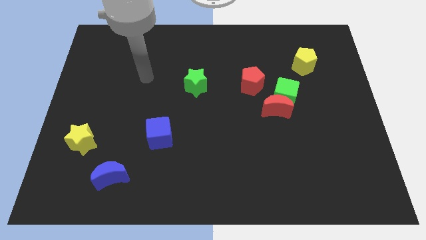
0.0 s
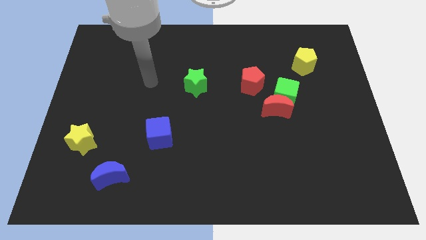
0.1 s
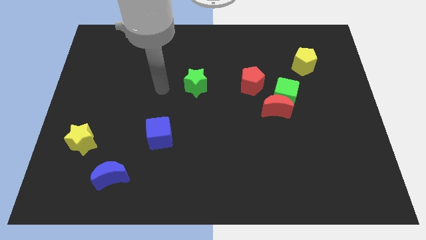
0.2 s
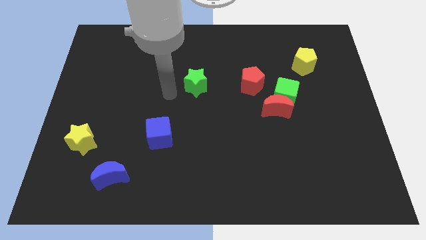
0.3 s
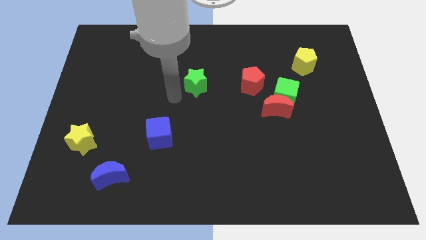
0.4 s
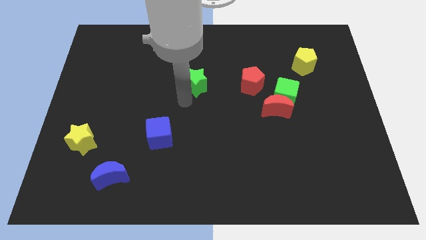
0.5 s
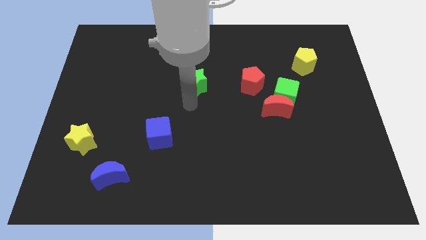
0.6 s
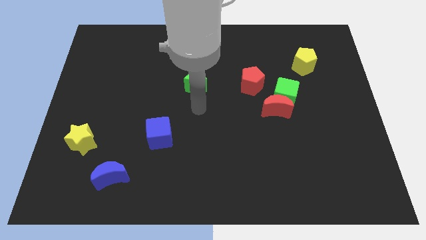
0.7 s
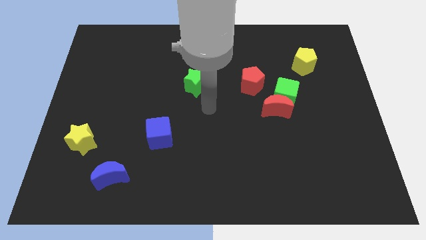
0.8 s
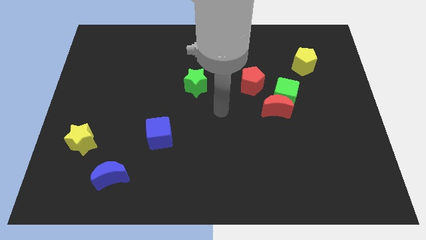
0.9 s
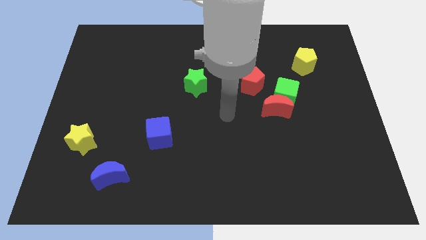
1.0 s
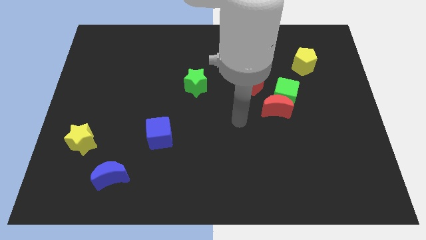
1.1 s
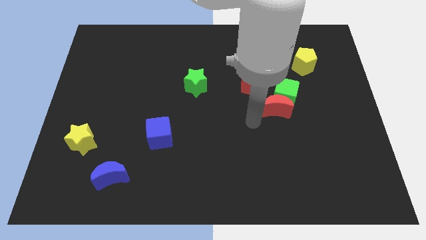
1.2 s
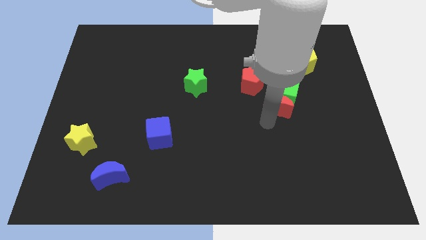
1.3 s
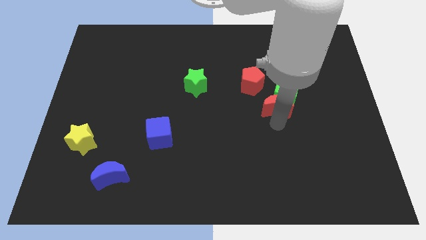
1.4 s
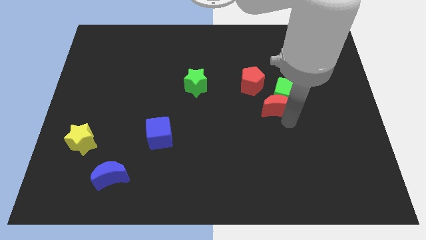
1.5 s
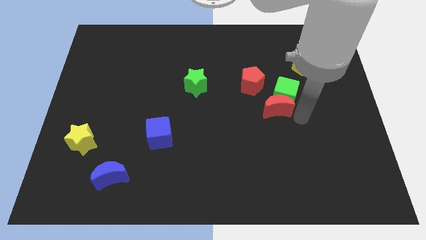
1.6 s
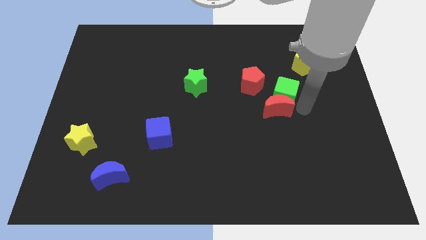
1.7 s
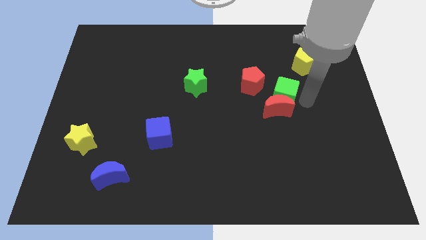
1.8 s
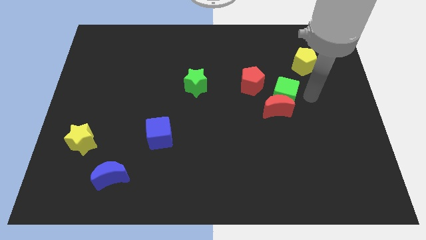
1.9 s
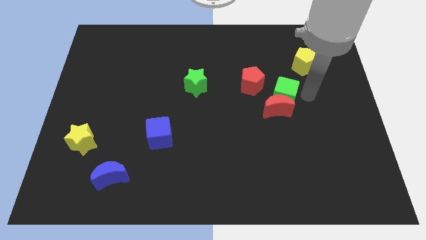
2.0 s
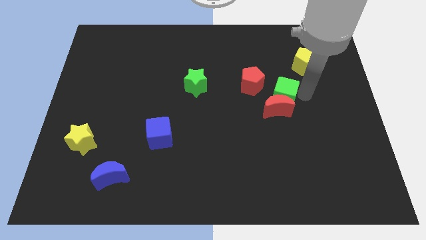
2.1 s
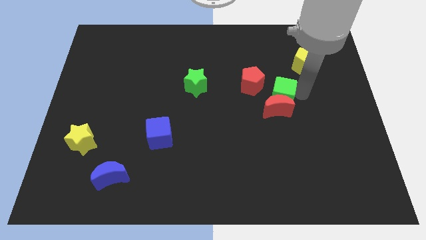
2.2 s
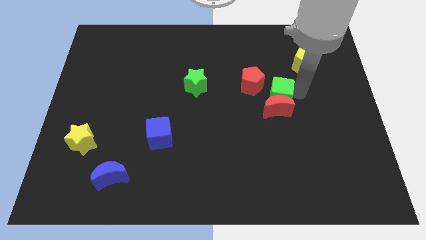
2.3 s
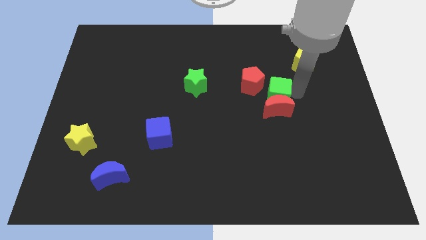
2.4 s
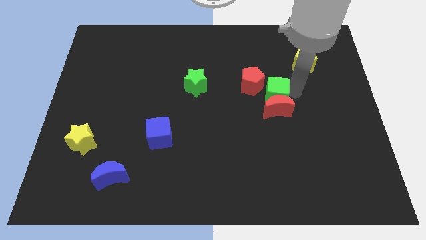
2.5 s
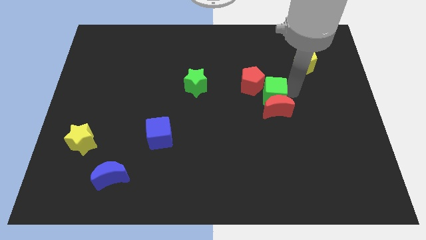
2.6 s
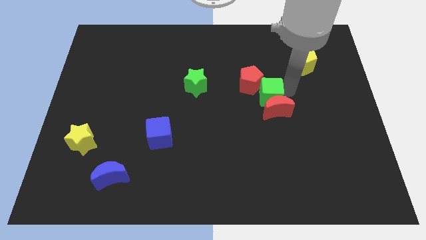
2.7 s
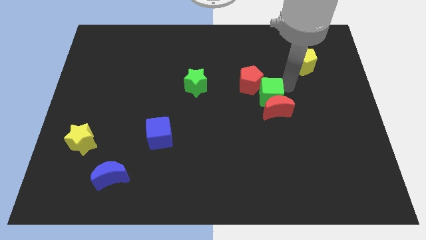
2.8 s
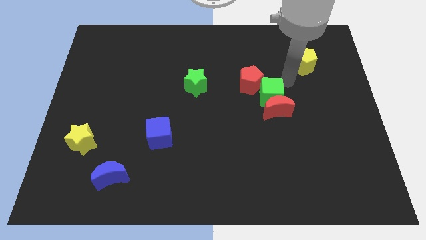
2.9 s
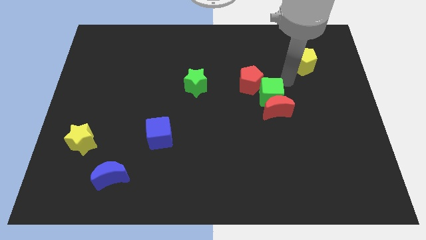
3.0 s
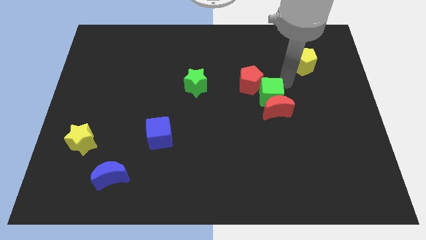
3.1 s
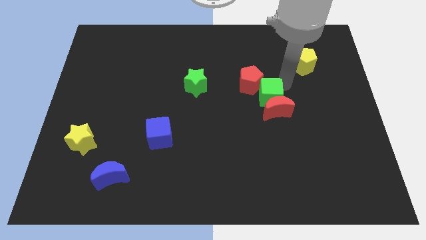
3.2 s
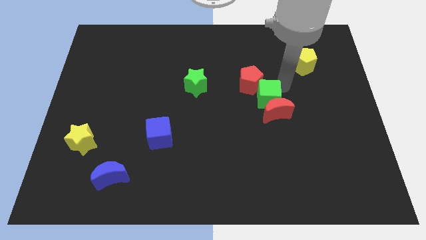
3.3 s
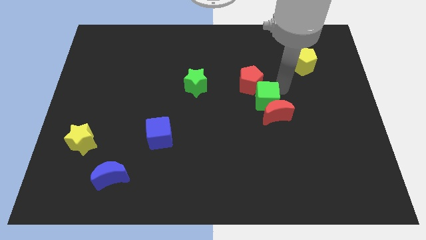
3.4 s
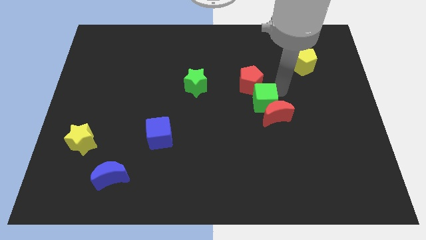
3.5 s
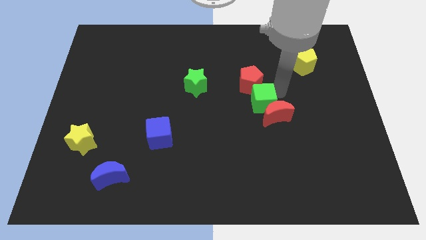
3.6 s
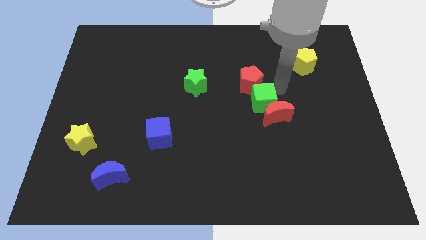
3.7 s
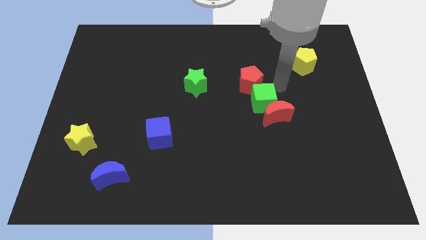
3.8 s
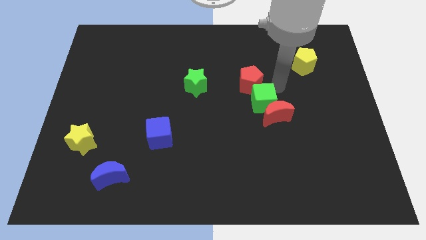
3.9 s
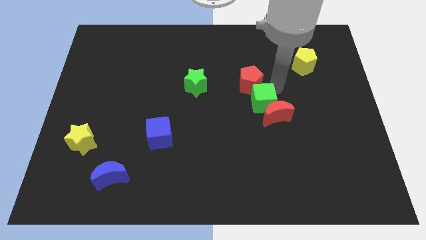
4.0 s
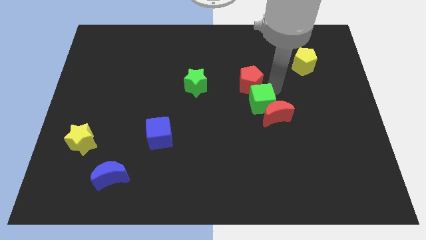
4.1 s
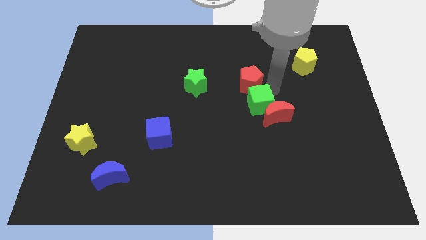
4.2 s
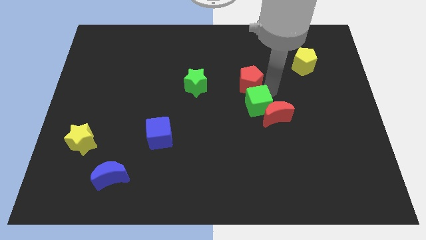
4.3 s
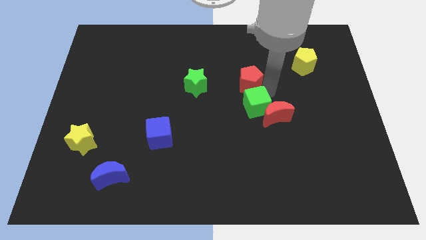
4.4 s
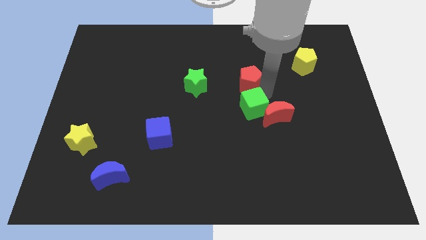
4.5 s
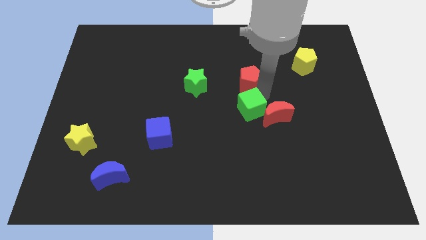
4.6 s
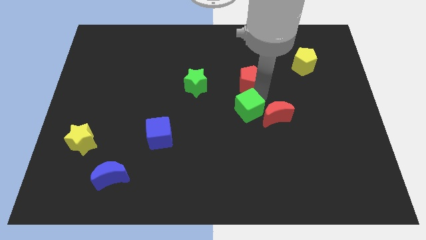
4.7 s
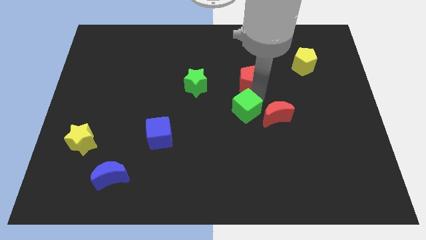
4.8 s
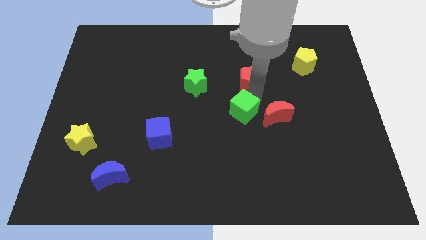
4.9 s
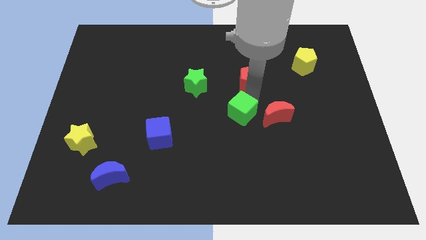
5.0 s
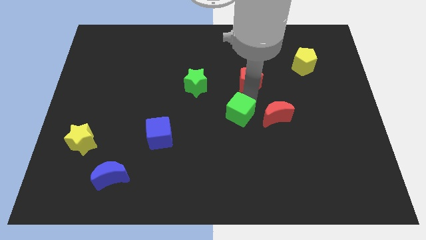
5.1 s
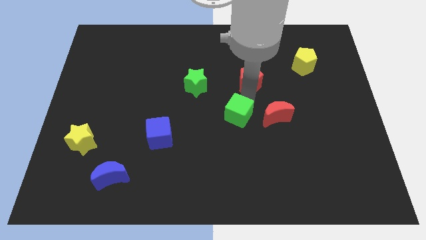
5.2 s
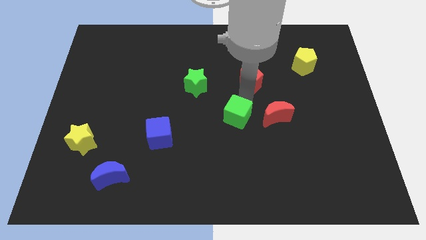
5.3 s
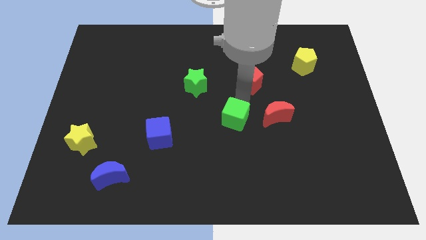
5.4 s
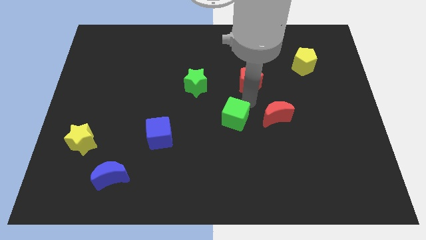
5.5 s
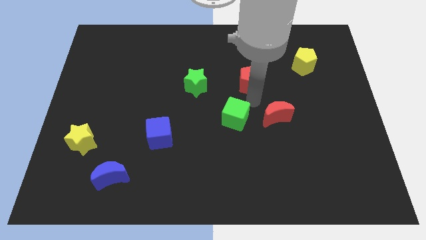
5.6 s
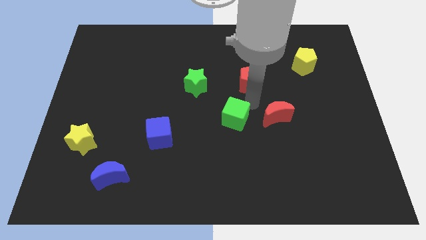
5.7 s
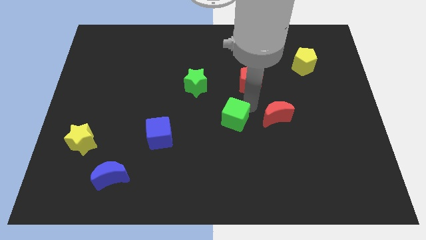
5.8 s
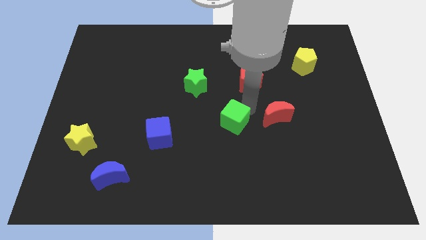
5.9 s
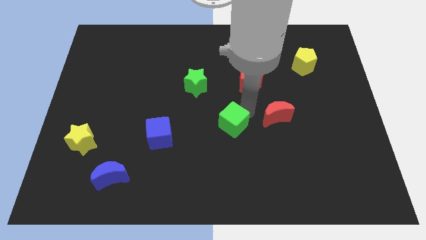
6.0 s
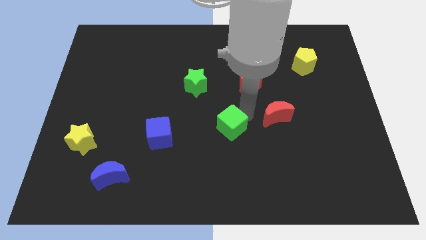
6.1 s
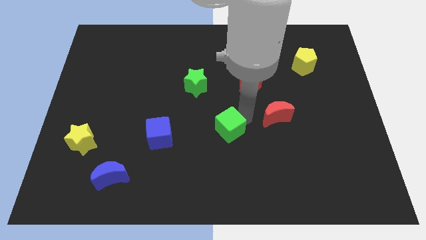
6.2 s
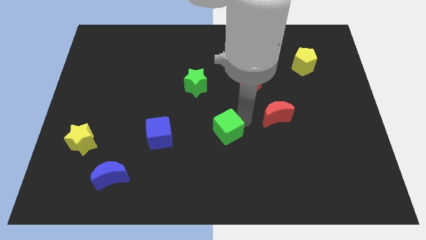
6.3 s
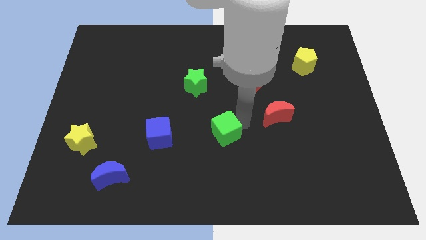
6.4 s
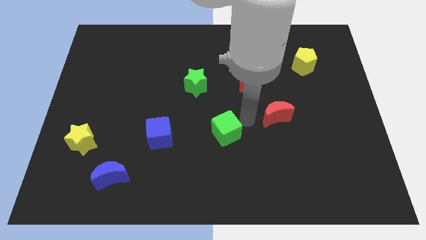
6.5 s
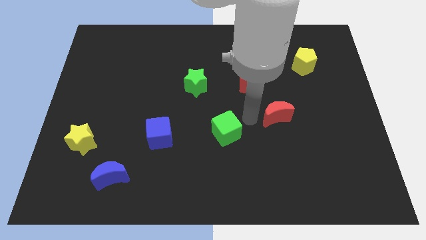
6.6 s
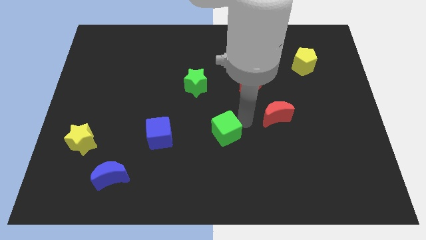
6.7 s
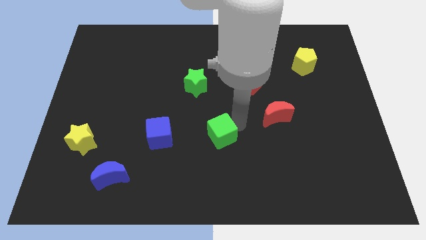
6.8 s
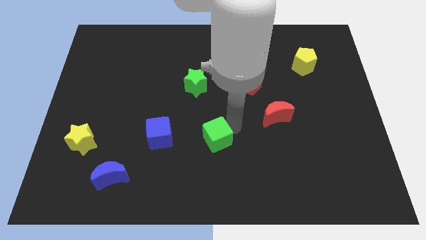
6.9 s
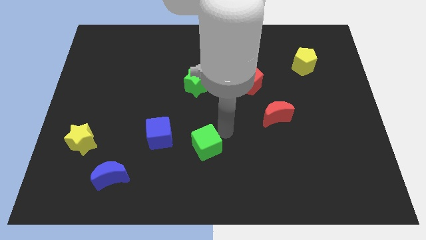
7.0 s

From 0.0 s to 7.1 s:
push the green cube down and then left

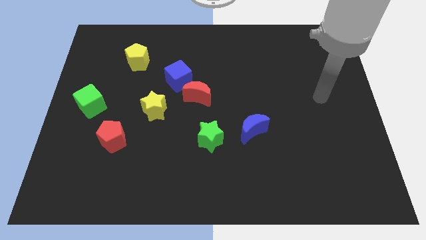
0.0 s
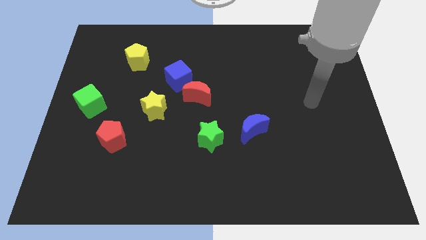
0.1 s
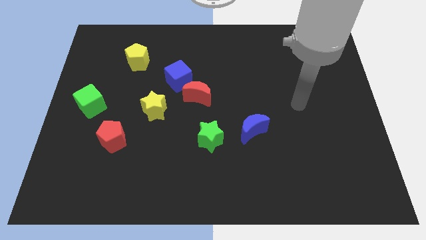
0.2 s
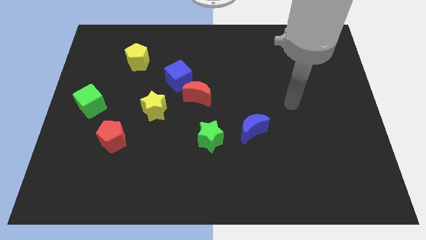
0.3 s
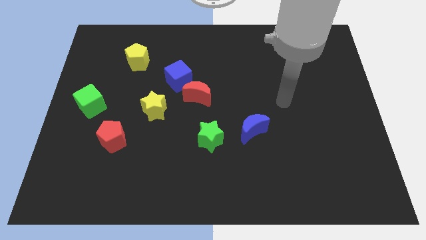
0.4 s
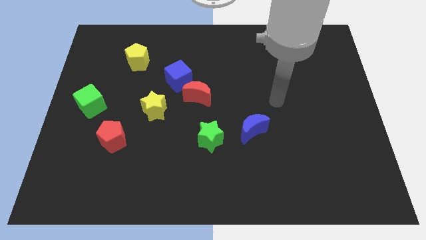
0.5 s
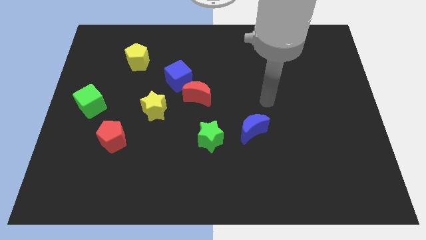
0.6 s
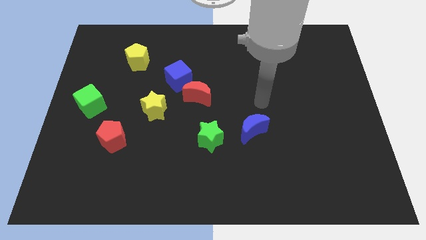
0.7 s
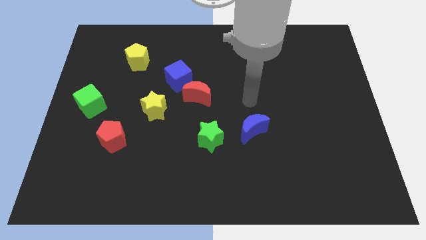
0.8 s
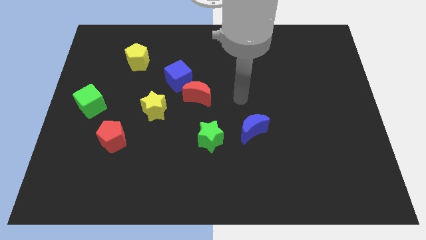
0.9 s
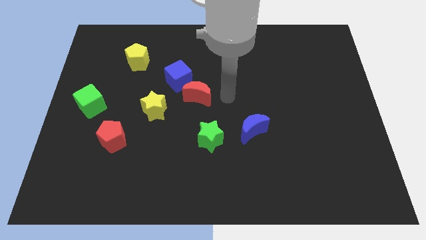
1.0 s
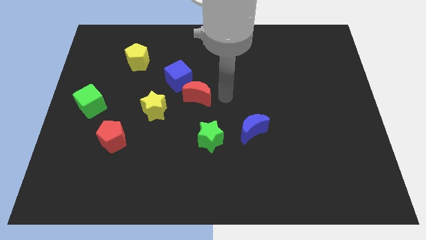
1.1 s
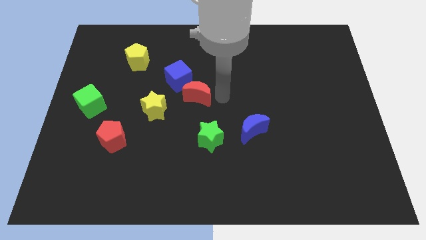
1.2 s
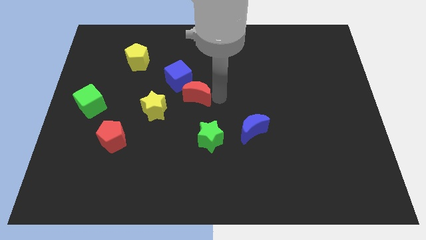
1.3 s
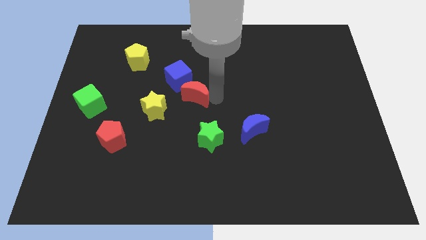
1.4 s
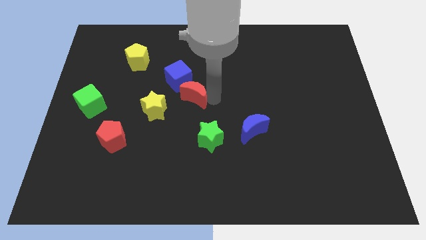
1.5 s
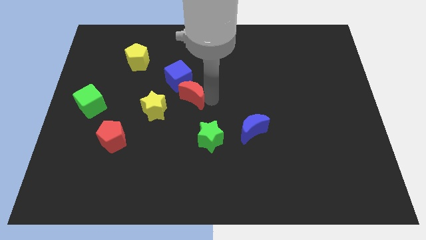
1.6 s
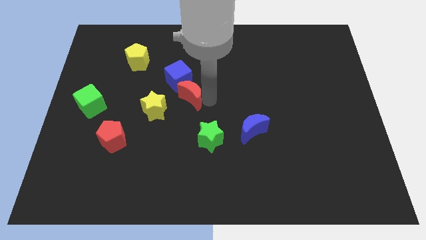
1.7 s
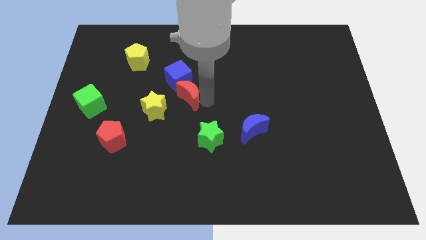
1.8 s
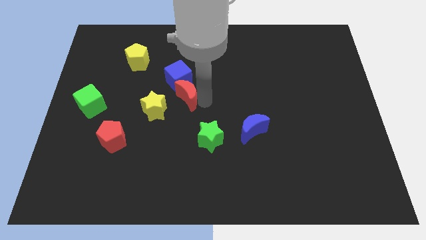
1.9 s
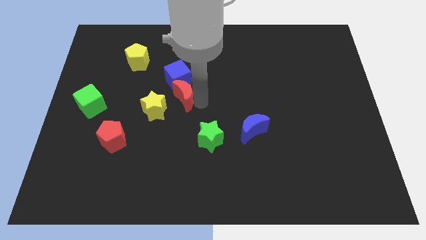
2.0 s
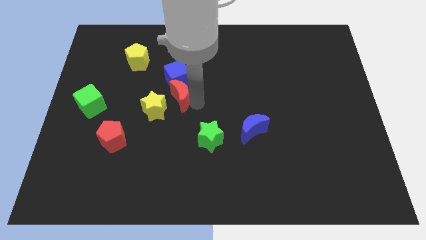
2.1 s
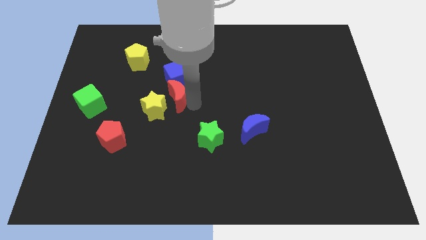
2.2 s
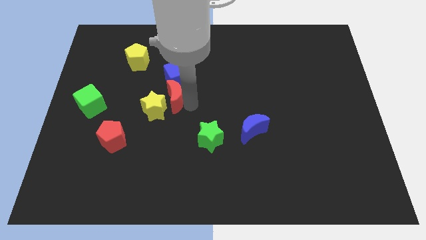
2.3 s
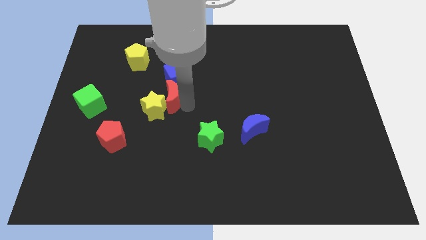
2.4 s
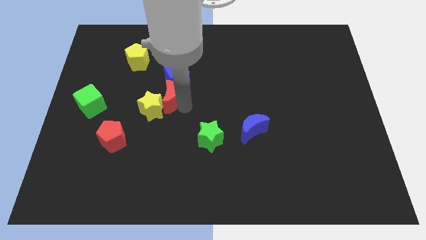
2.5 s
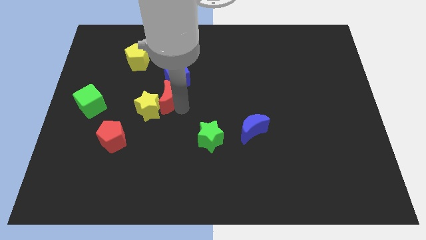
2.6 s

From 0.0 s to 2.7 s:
slightly push the red moon left
